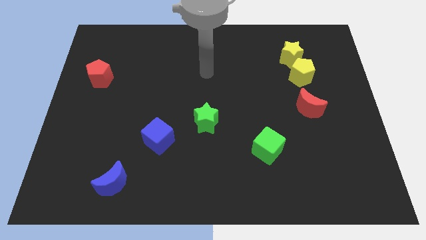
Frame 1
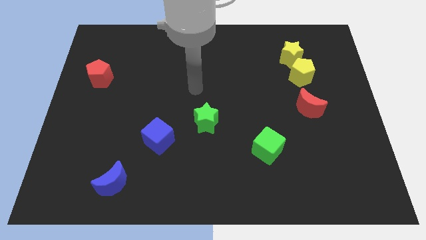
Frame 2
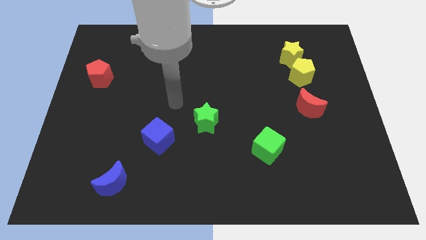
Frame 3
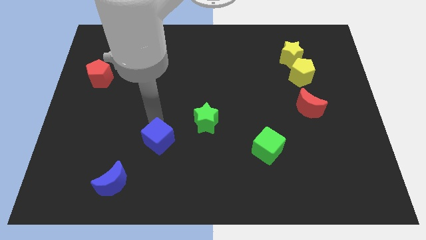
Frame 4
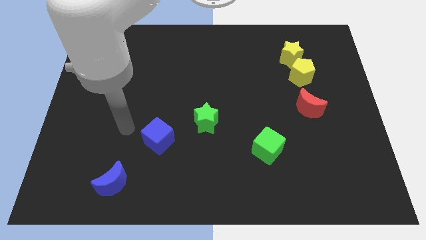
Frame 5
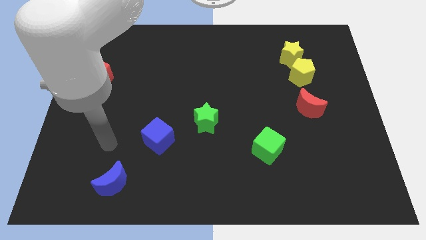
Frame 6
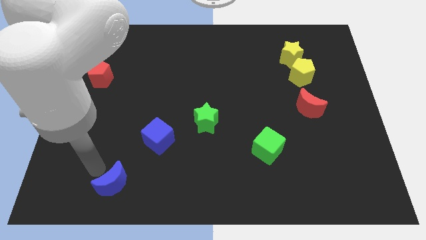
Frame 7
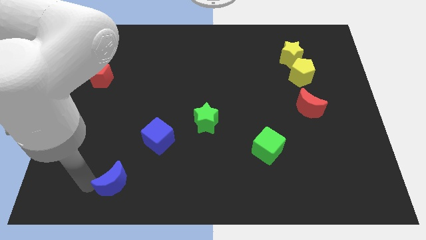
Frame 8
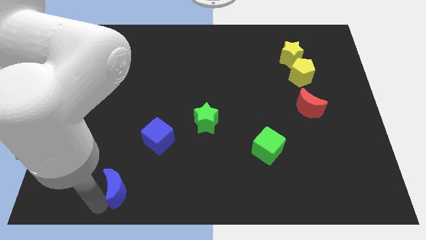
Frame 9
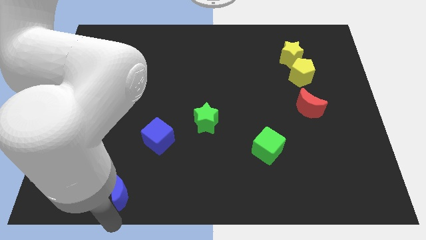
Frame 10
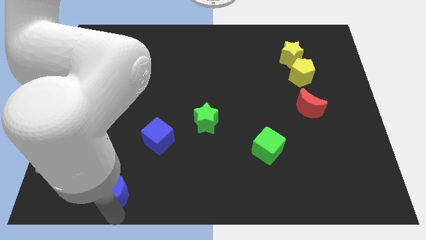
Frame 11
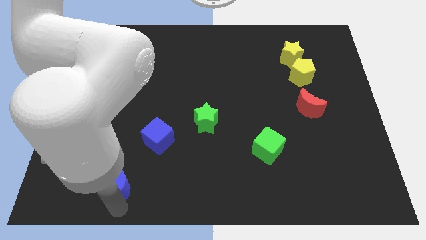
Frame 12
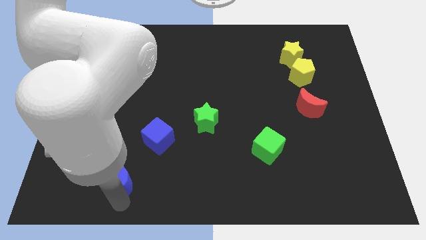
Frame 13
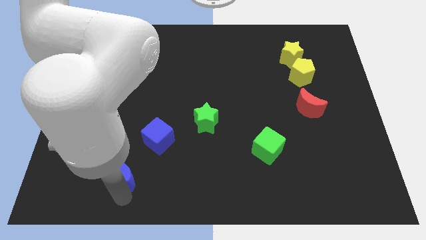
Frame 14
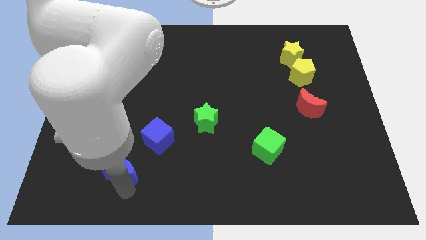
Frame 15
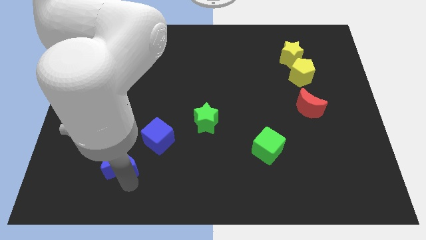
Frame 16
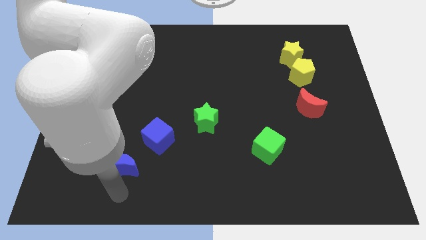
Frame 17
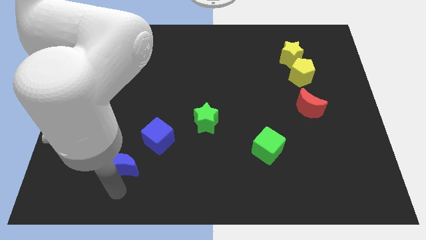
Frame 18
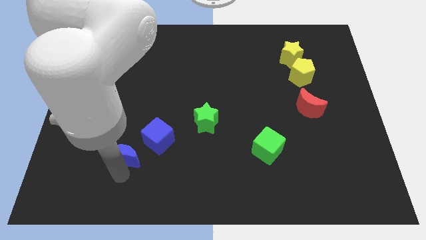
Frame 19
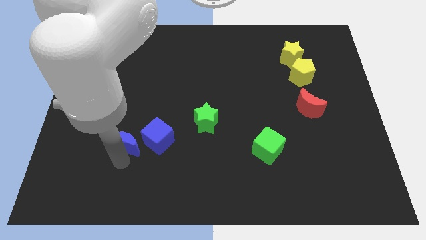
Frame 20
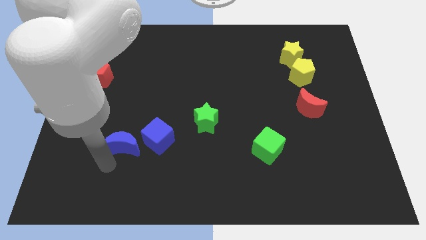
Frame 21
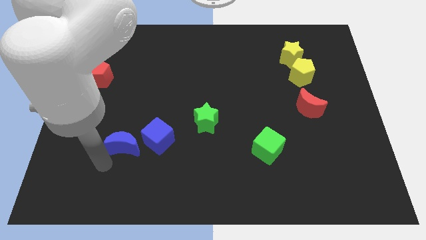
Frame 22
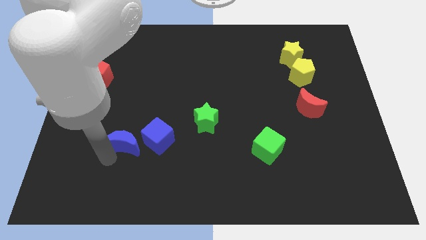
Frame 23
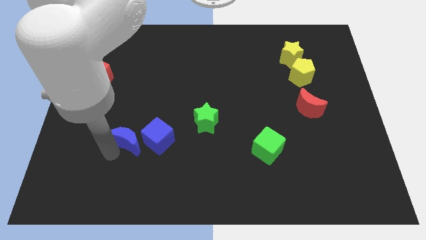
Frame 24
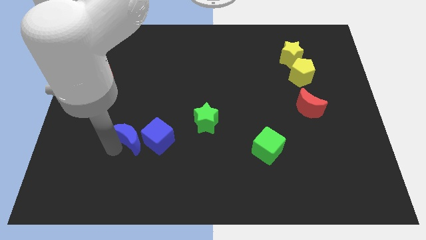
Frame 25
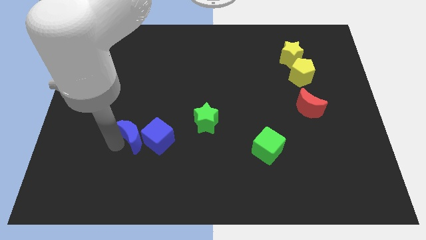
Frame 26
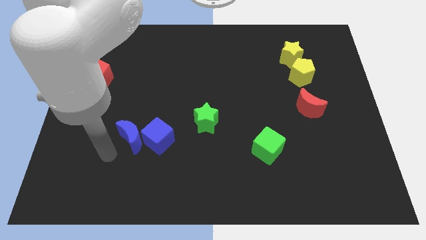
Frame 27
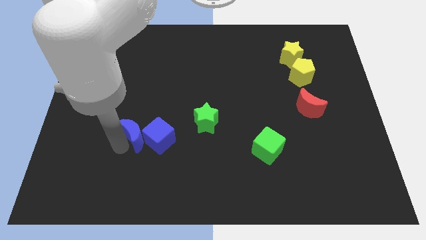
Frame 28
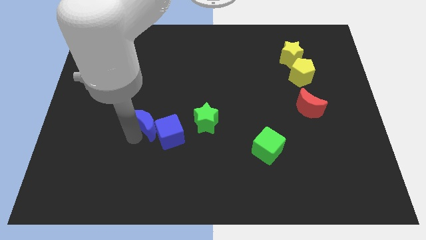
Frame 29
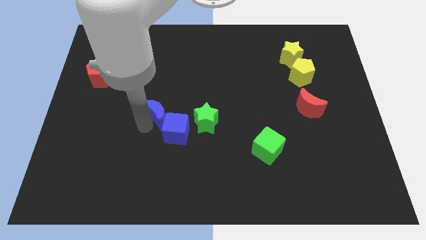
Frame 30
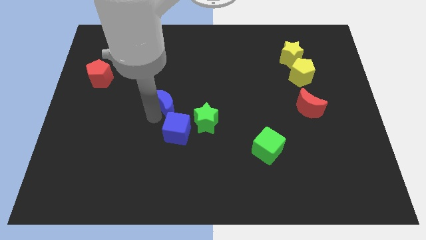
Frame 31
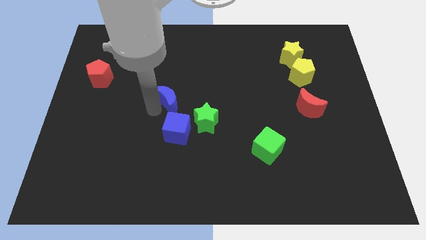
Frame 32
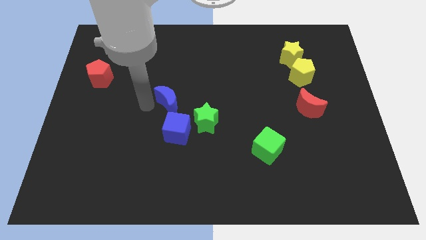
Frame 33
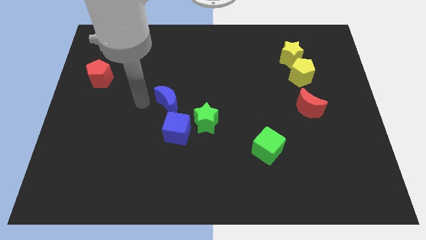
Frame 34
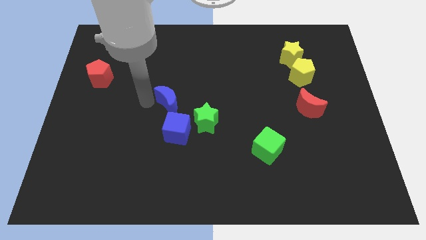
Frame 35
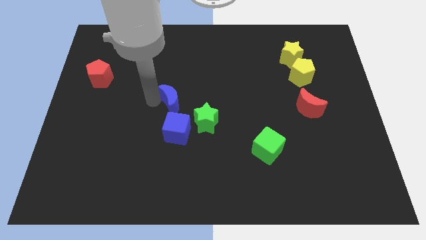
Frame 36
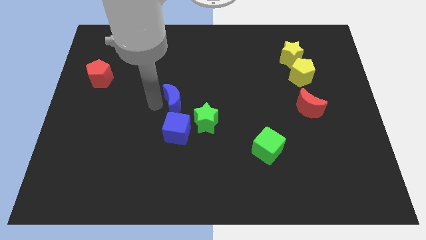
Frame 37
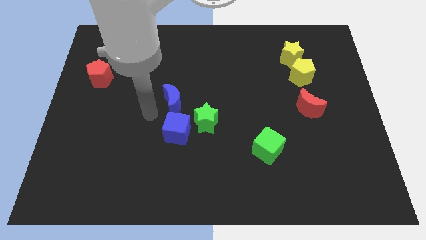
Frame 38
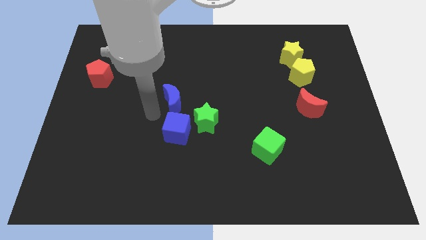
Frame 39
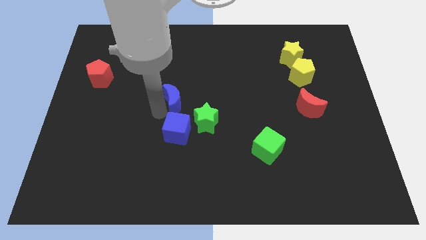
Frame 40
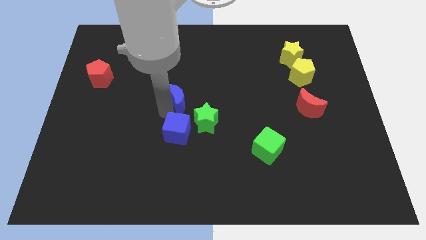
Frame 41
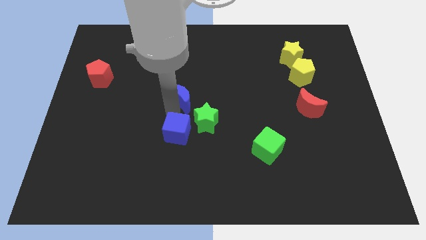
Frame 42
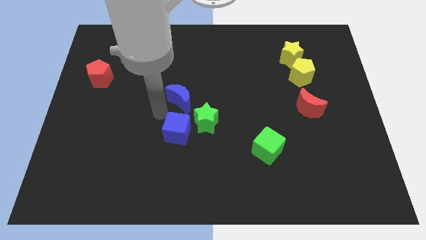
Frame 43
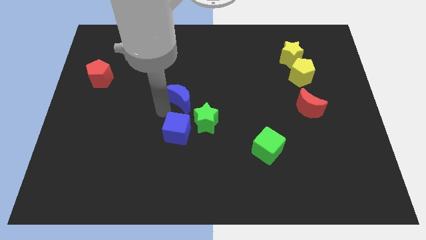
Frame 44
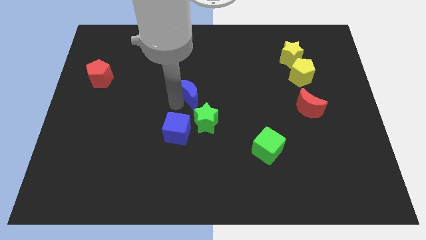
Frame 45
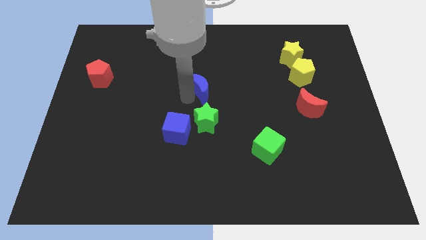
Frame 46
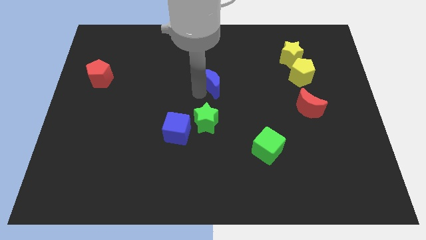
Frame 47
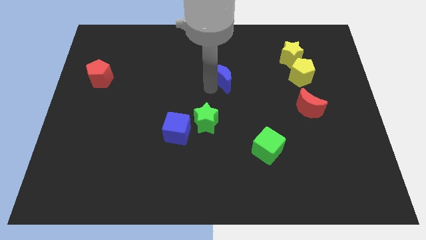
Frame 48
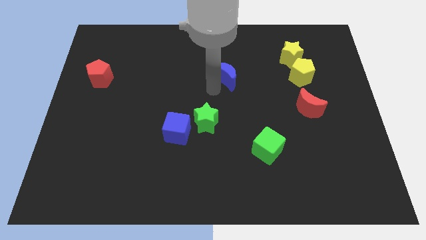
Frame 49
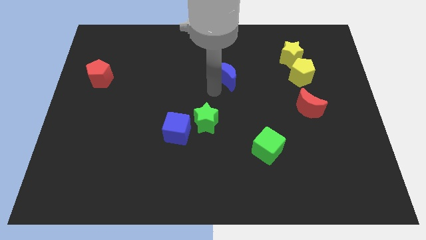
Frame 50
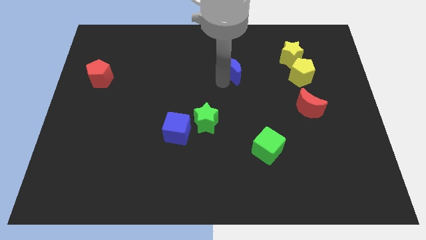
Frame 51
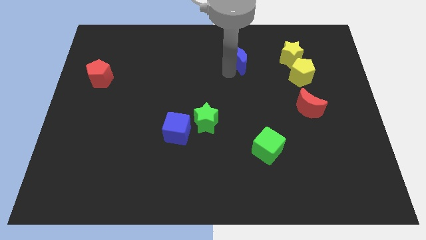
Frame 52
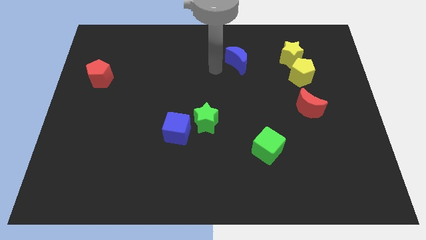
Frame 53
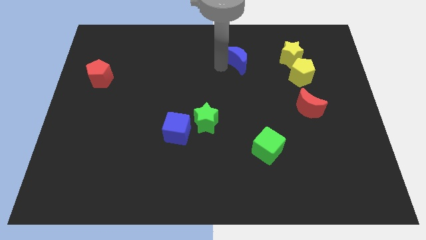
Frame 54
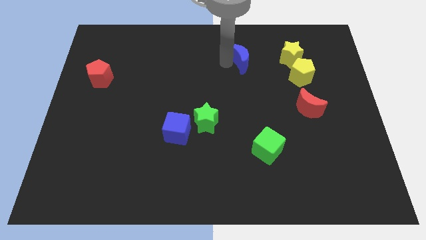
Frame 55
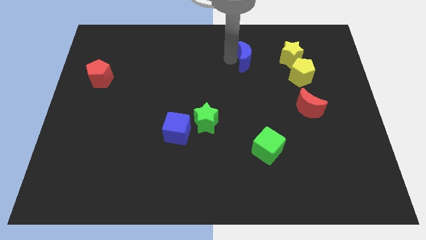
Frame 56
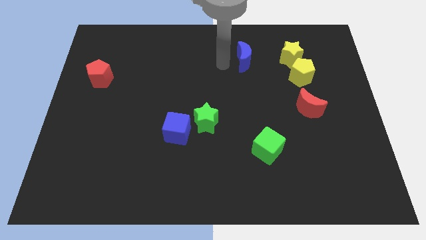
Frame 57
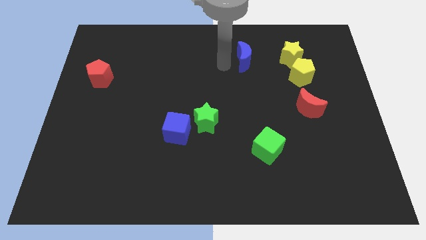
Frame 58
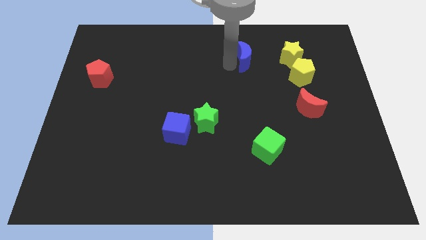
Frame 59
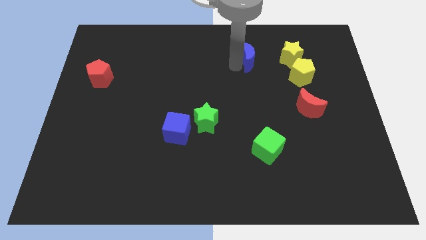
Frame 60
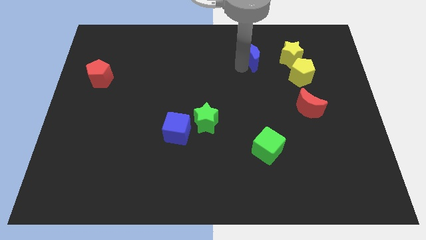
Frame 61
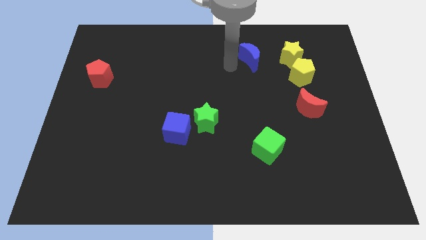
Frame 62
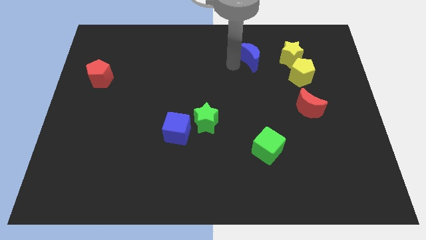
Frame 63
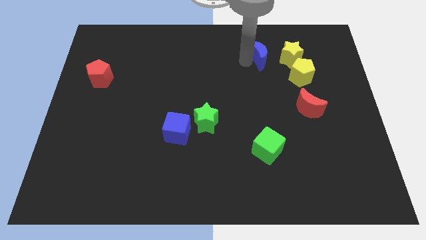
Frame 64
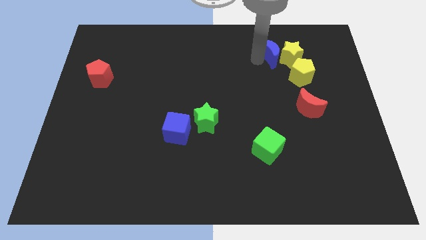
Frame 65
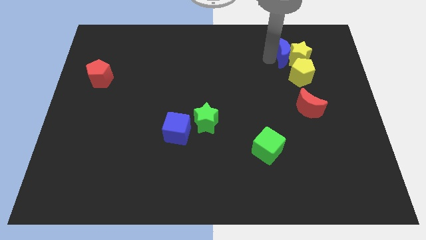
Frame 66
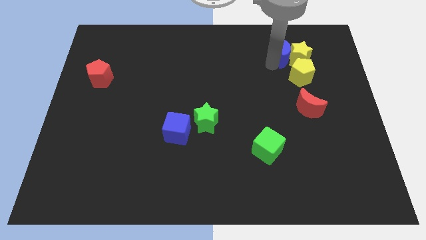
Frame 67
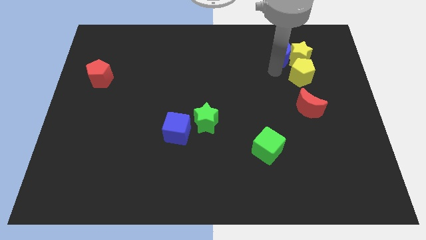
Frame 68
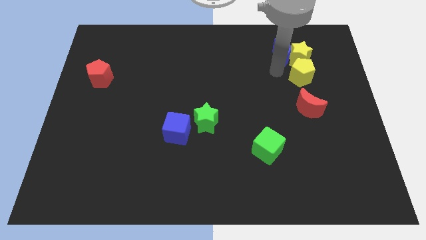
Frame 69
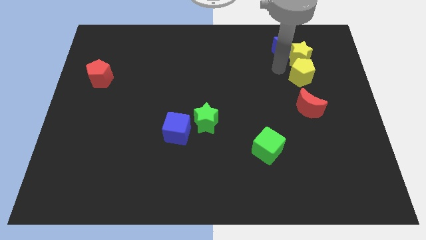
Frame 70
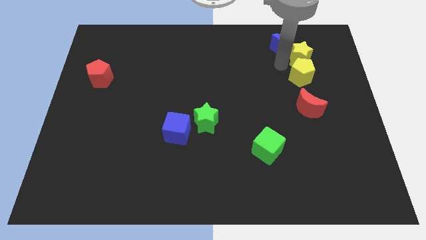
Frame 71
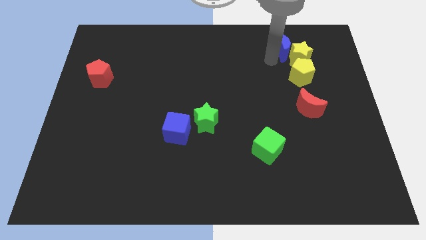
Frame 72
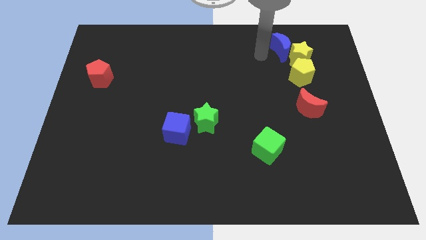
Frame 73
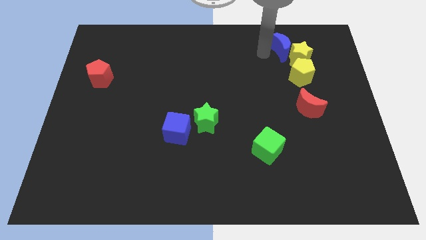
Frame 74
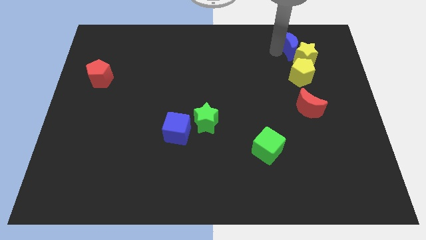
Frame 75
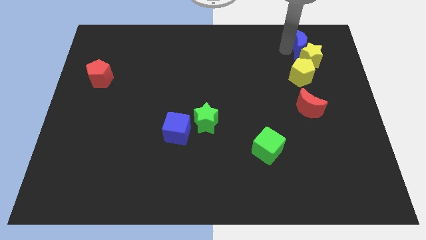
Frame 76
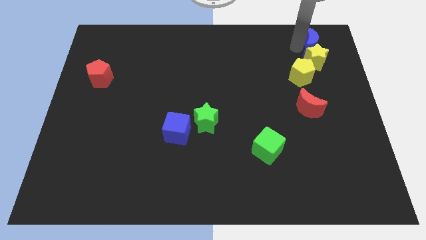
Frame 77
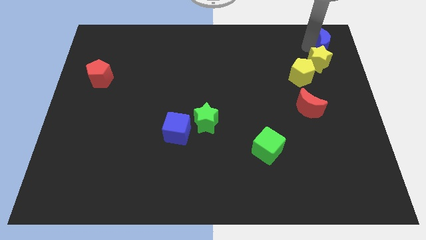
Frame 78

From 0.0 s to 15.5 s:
push the blue moon to the top right
